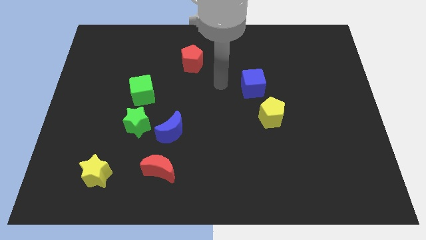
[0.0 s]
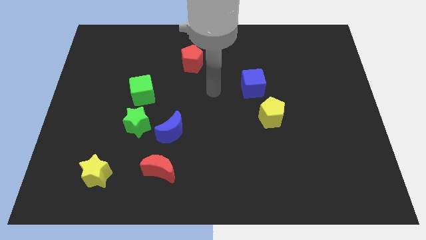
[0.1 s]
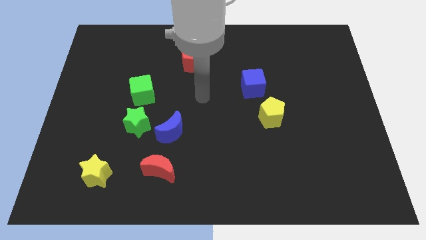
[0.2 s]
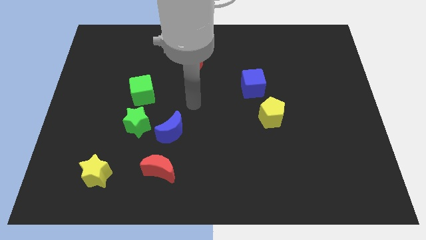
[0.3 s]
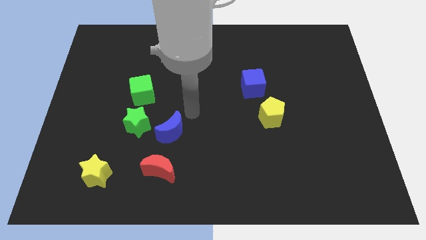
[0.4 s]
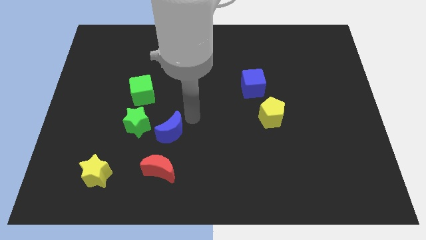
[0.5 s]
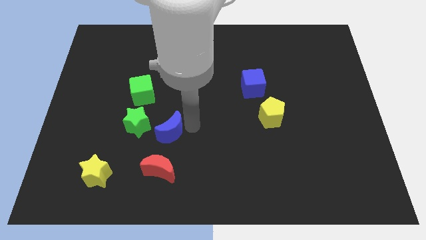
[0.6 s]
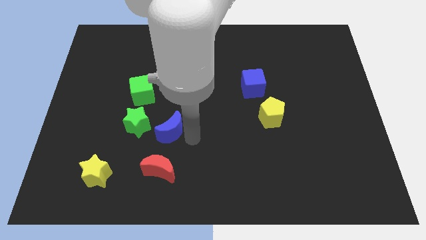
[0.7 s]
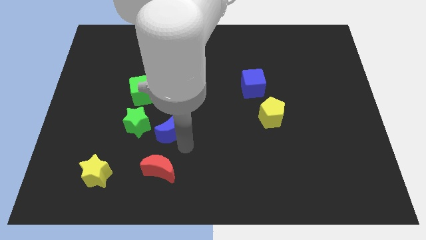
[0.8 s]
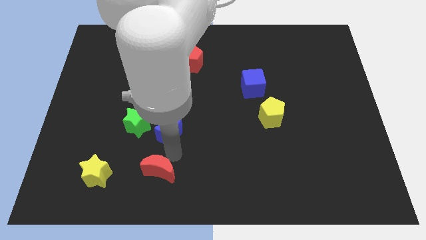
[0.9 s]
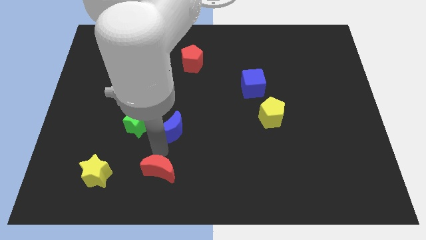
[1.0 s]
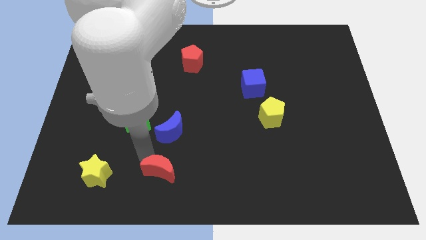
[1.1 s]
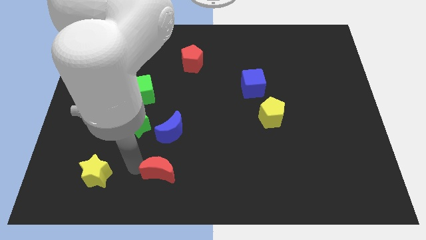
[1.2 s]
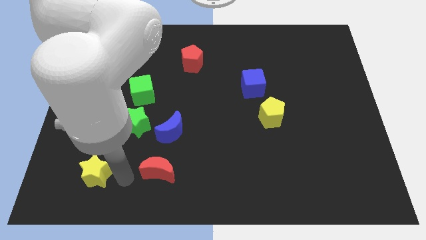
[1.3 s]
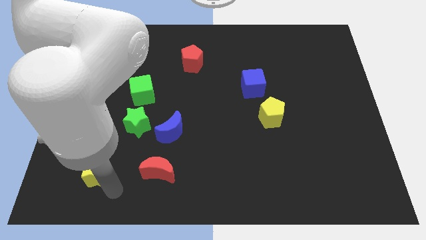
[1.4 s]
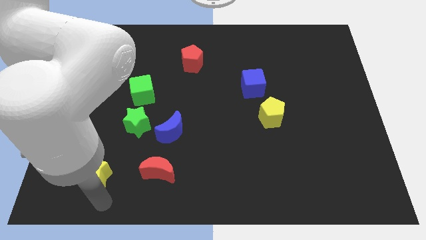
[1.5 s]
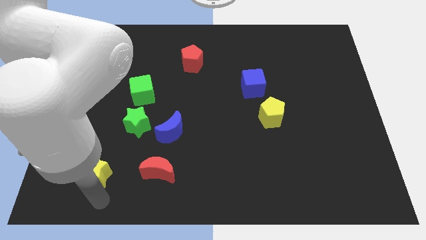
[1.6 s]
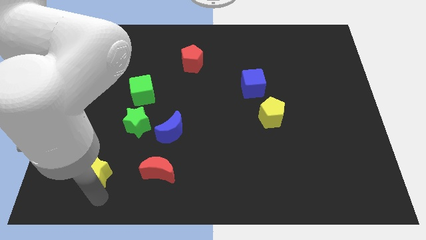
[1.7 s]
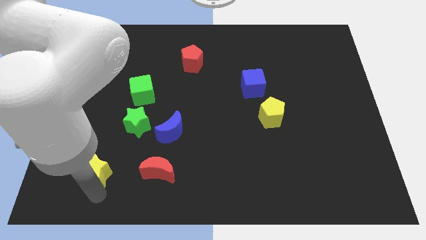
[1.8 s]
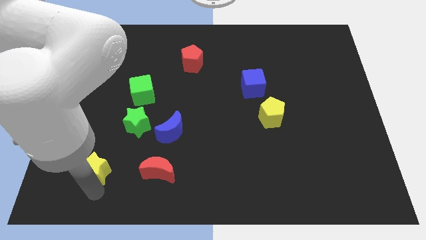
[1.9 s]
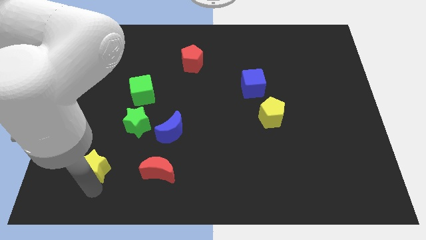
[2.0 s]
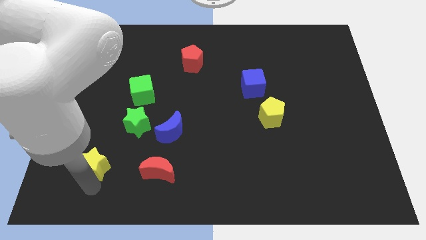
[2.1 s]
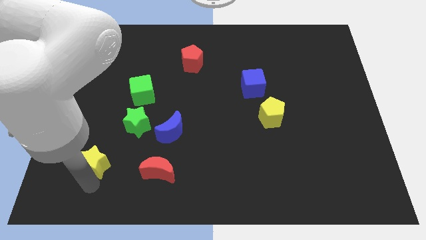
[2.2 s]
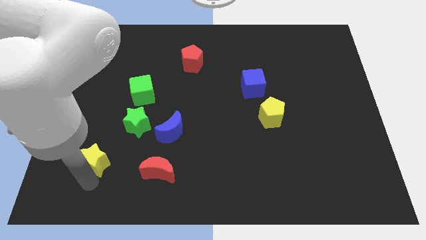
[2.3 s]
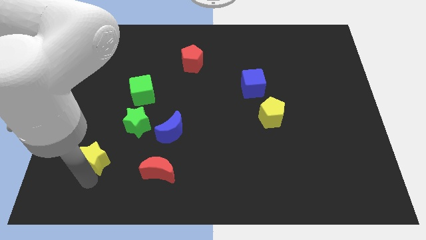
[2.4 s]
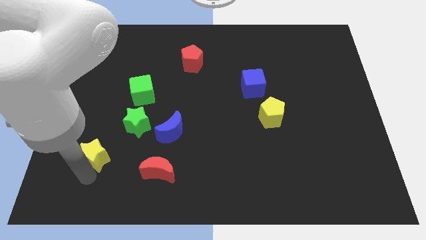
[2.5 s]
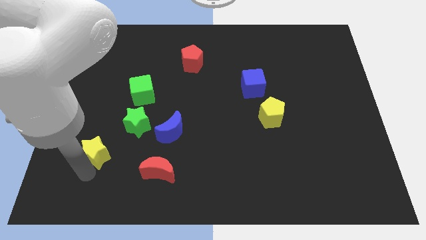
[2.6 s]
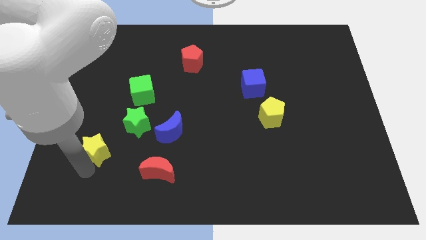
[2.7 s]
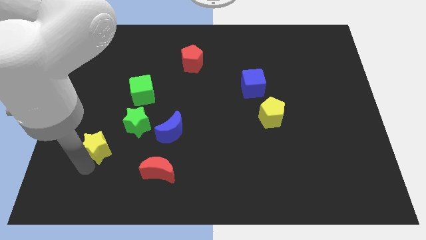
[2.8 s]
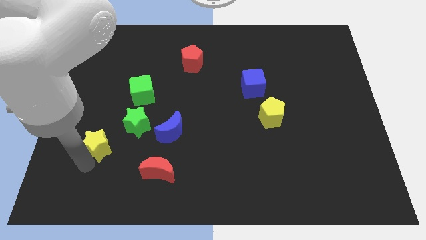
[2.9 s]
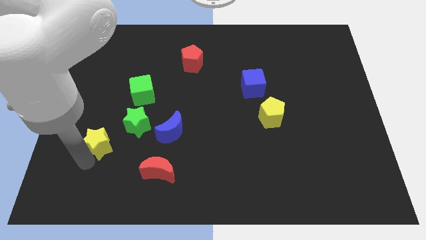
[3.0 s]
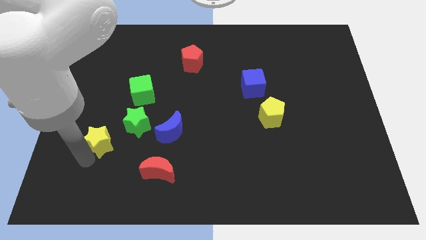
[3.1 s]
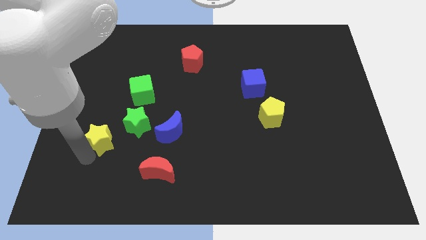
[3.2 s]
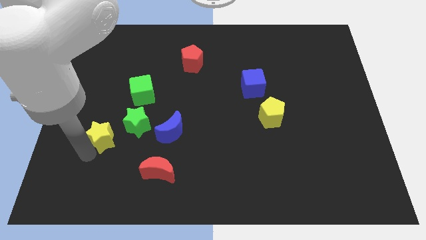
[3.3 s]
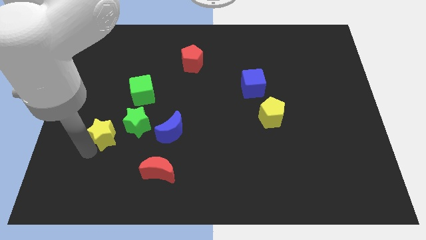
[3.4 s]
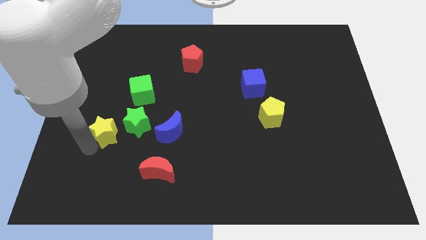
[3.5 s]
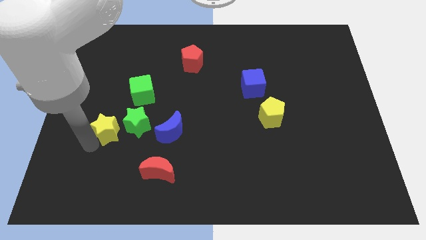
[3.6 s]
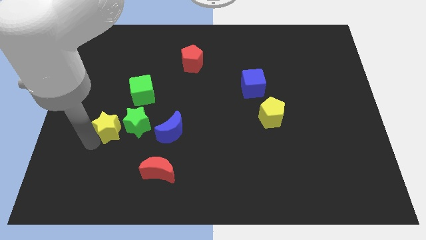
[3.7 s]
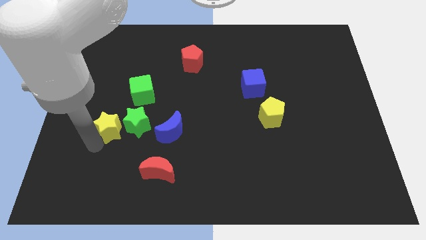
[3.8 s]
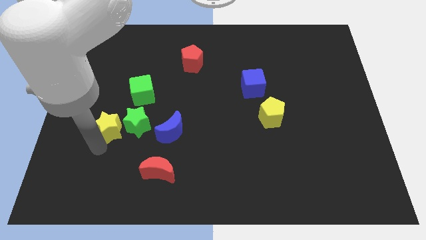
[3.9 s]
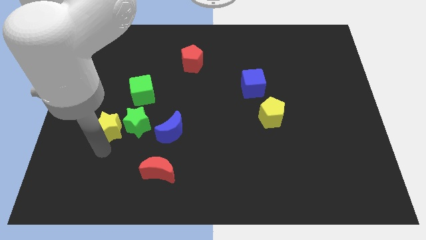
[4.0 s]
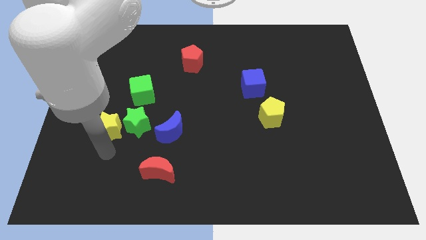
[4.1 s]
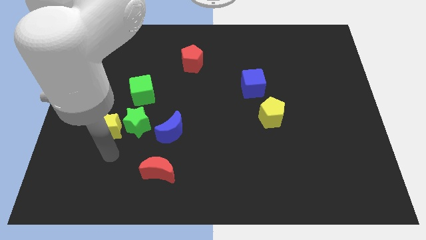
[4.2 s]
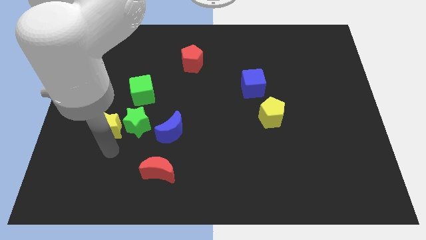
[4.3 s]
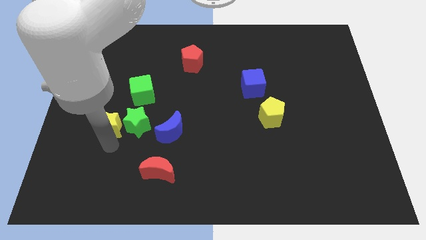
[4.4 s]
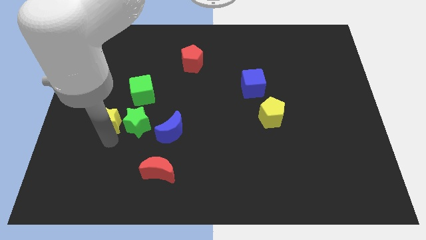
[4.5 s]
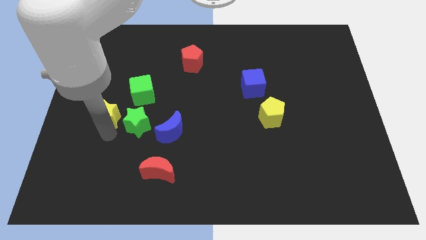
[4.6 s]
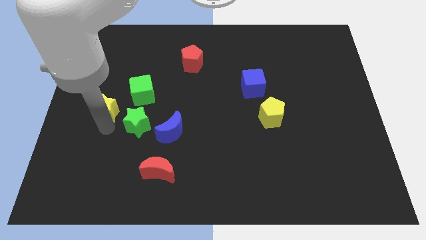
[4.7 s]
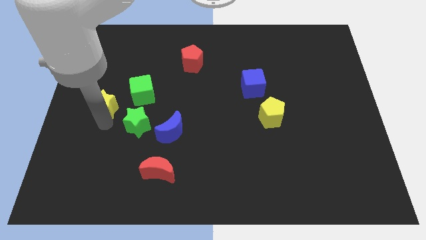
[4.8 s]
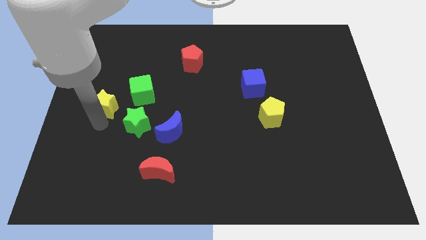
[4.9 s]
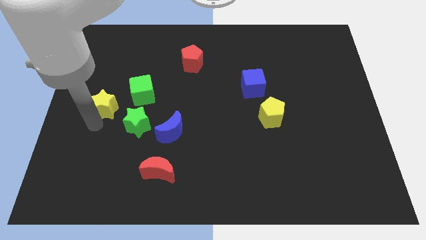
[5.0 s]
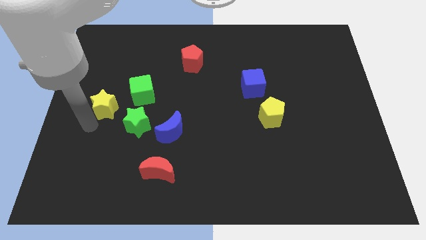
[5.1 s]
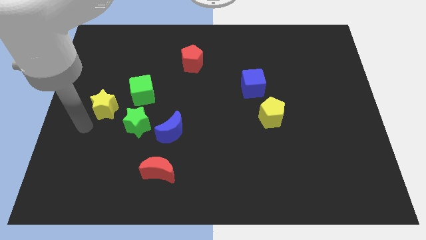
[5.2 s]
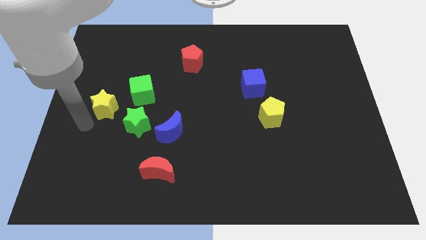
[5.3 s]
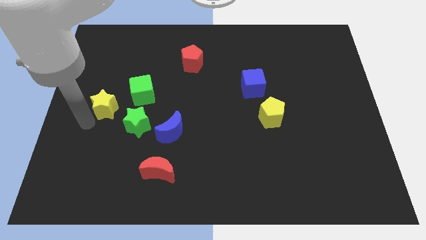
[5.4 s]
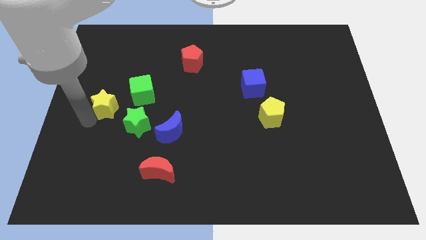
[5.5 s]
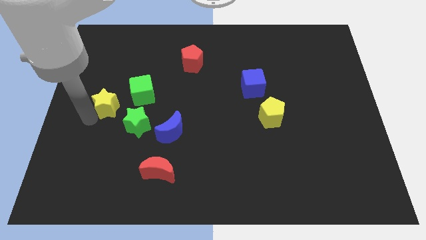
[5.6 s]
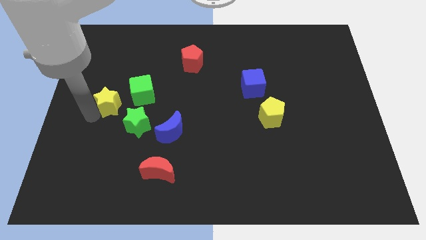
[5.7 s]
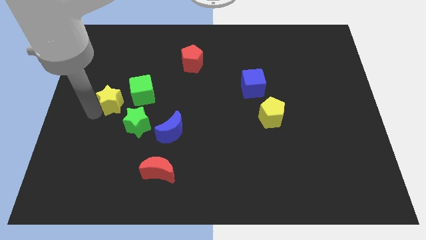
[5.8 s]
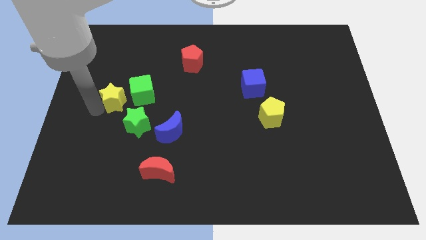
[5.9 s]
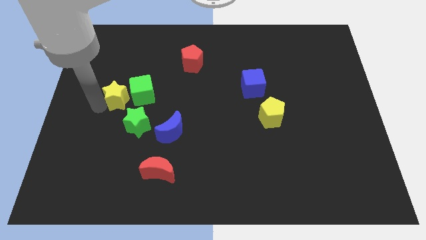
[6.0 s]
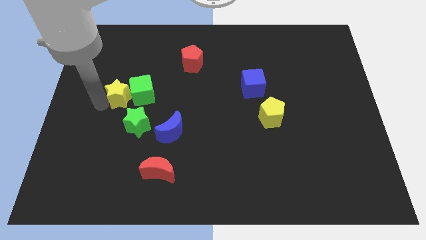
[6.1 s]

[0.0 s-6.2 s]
put the yellow star to the top left side of the green cube

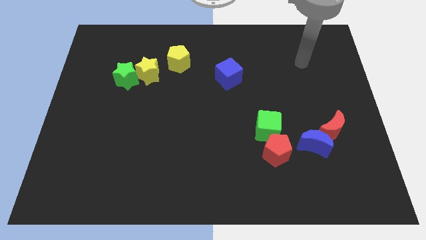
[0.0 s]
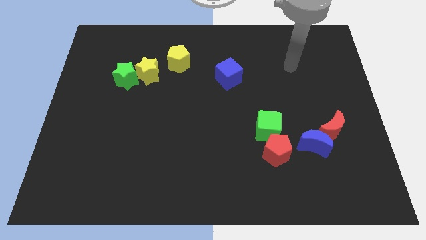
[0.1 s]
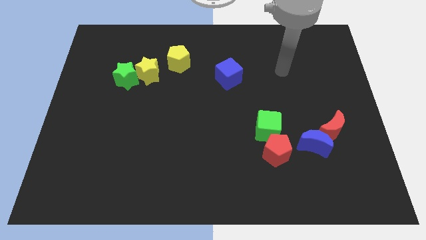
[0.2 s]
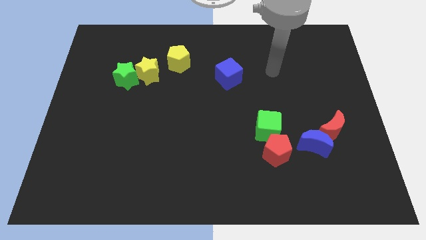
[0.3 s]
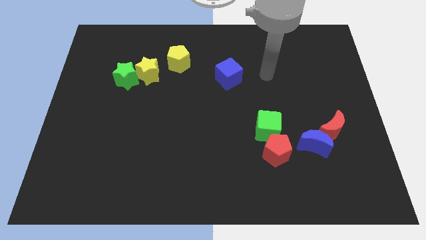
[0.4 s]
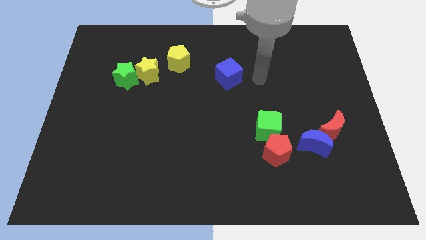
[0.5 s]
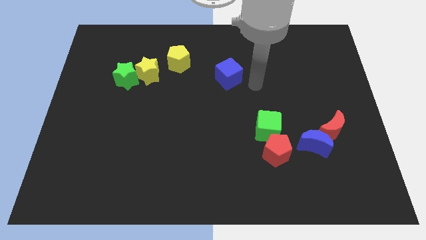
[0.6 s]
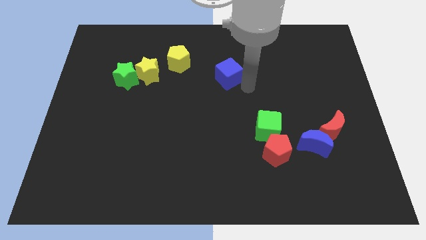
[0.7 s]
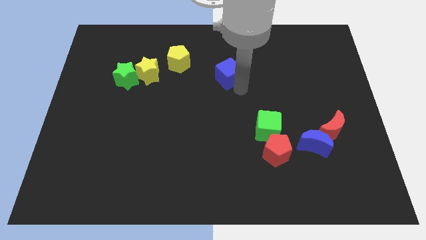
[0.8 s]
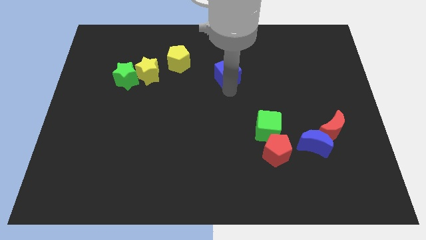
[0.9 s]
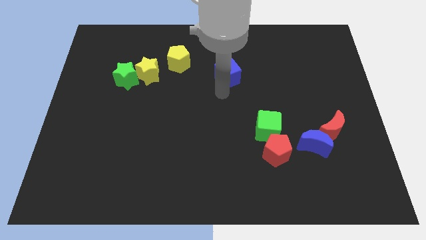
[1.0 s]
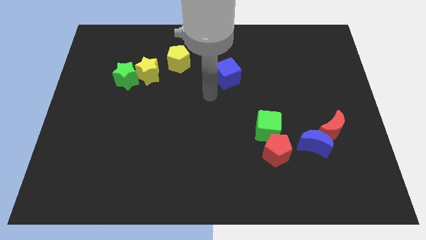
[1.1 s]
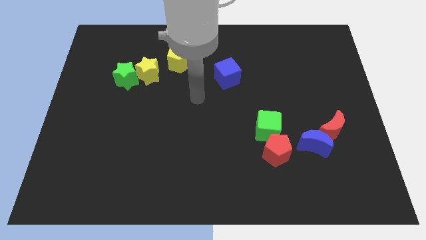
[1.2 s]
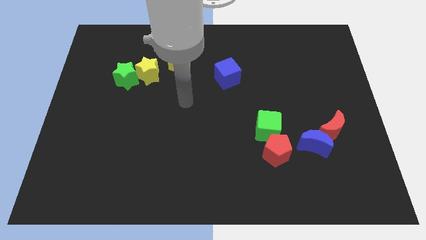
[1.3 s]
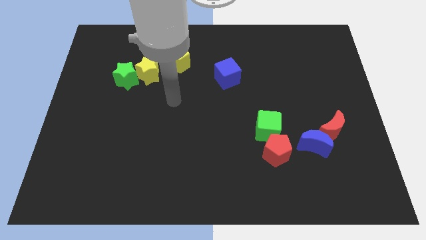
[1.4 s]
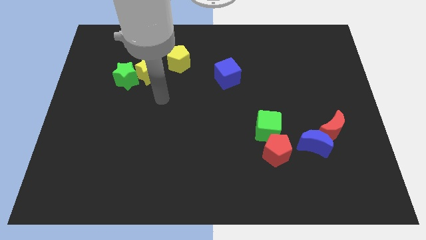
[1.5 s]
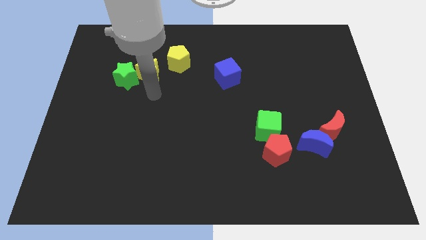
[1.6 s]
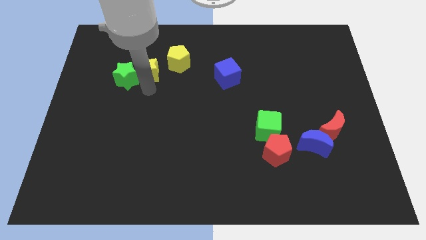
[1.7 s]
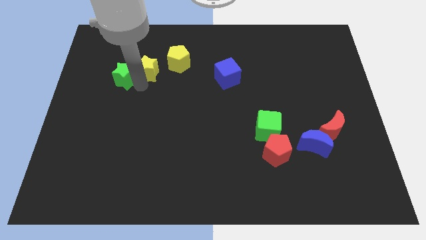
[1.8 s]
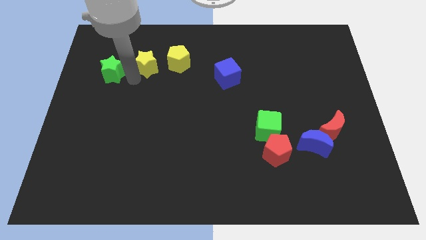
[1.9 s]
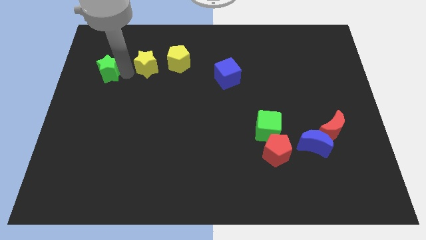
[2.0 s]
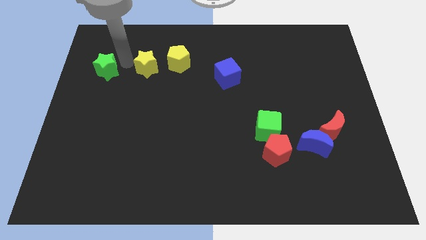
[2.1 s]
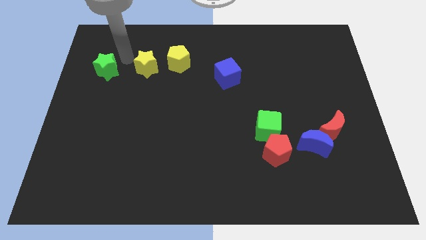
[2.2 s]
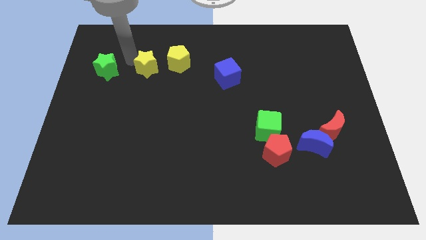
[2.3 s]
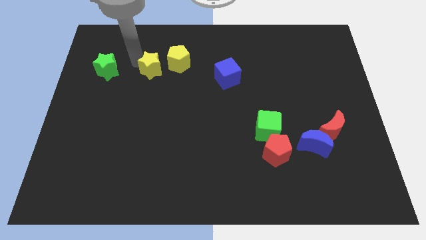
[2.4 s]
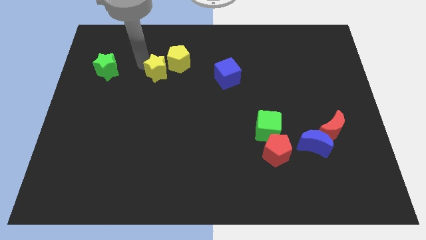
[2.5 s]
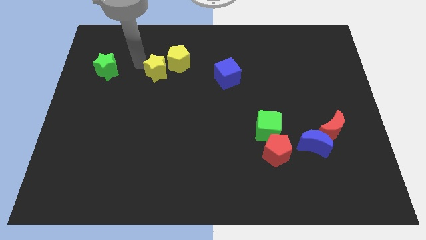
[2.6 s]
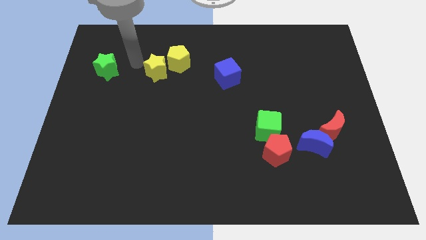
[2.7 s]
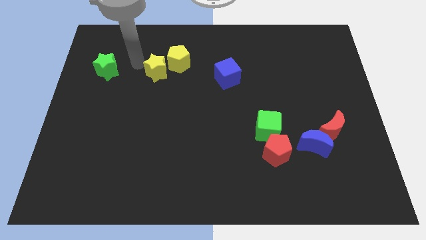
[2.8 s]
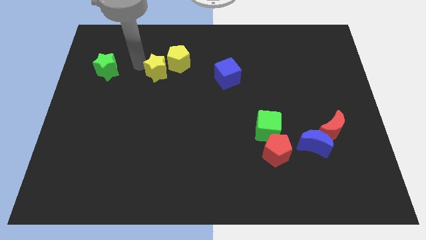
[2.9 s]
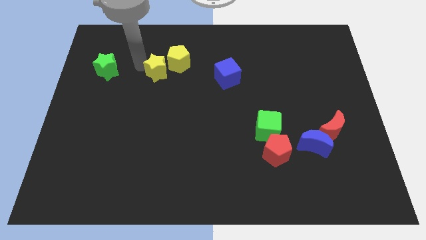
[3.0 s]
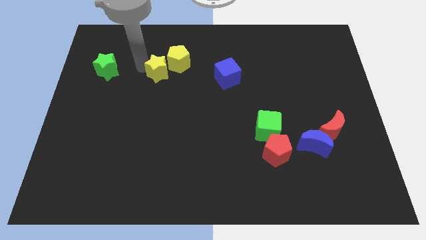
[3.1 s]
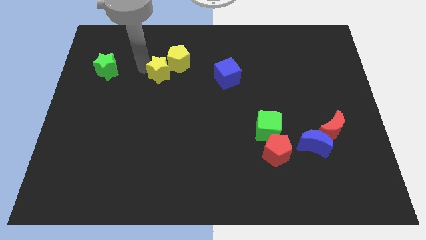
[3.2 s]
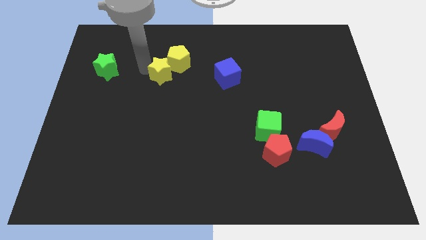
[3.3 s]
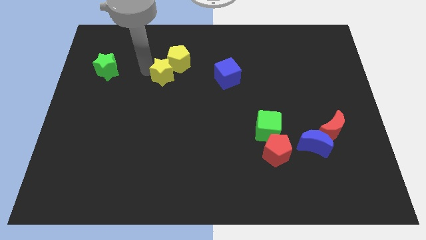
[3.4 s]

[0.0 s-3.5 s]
move the yellow star to the left of the blue cube
